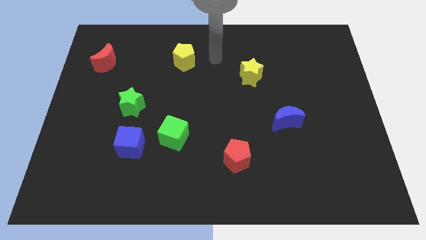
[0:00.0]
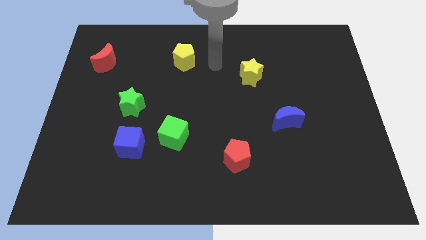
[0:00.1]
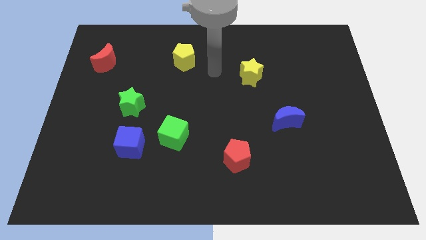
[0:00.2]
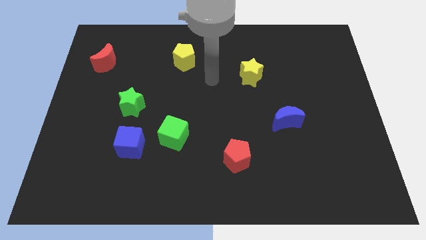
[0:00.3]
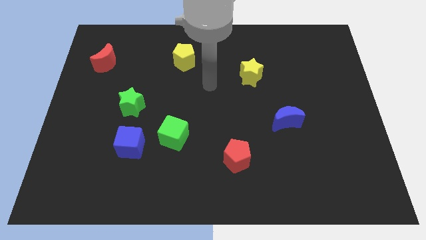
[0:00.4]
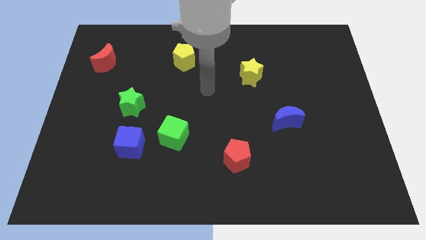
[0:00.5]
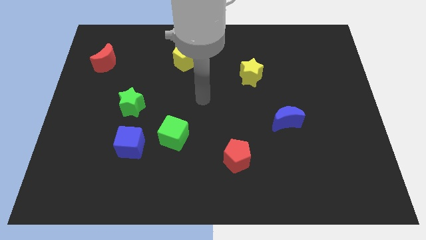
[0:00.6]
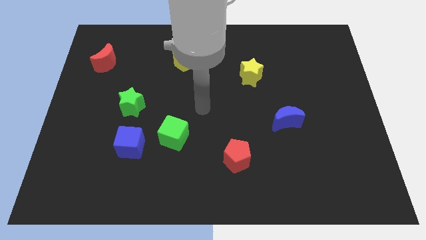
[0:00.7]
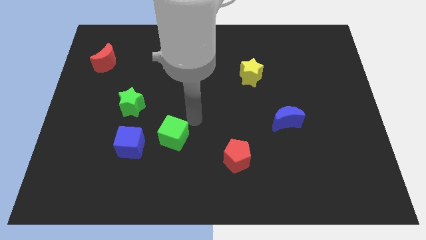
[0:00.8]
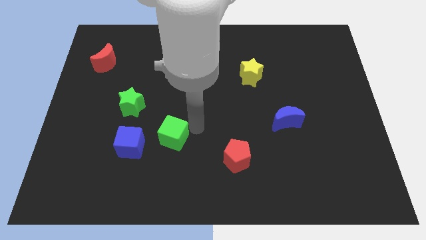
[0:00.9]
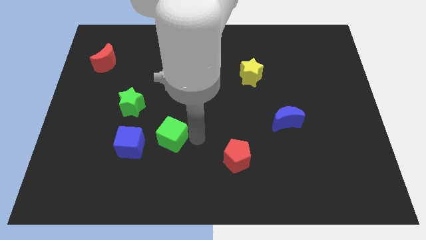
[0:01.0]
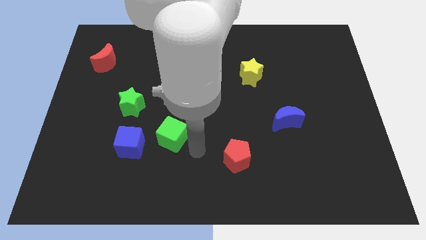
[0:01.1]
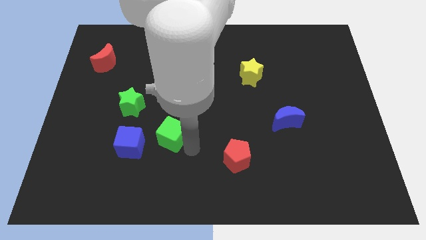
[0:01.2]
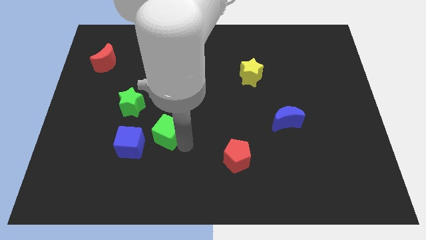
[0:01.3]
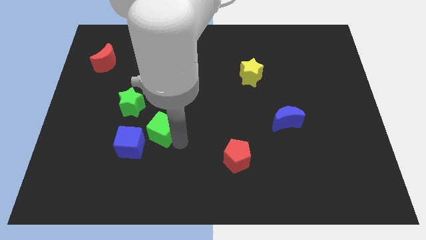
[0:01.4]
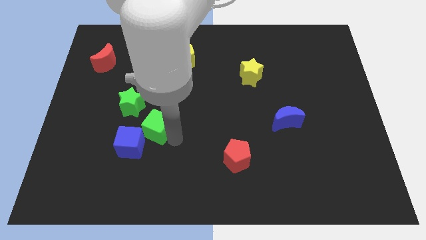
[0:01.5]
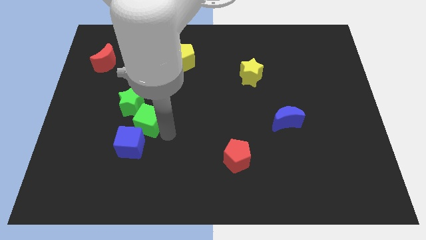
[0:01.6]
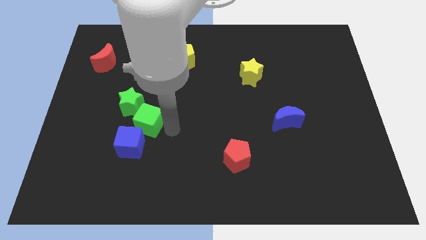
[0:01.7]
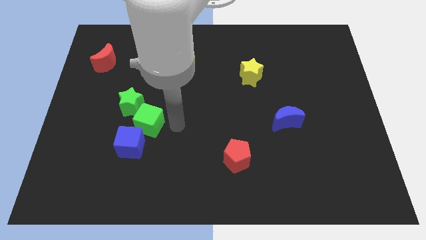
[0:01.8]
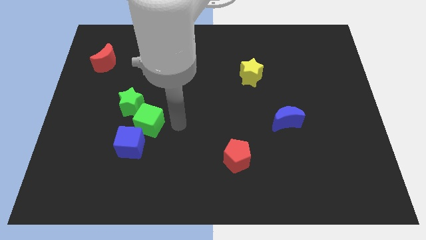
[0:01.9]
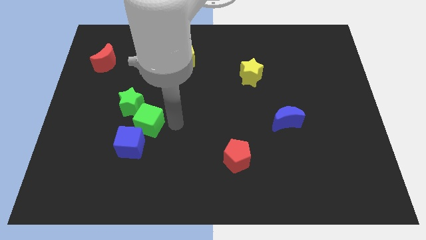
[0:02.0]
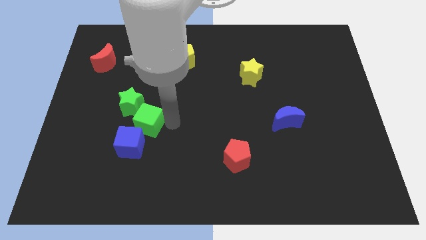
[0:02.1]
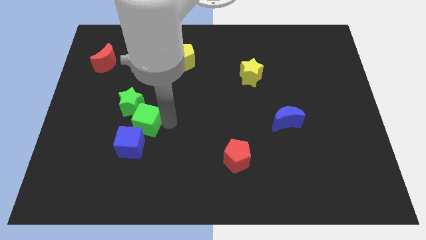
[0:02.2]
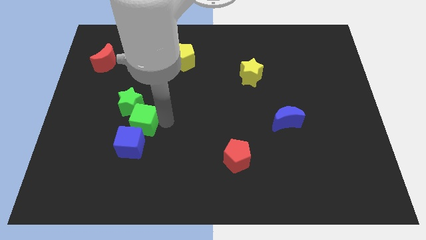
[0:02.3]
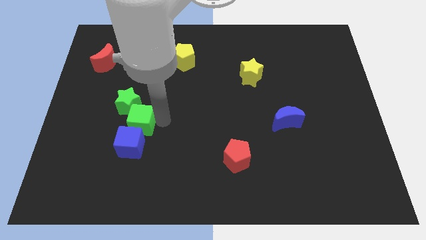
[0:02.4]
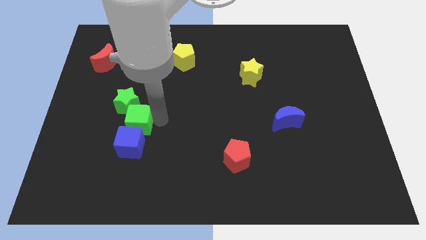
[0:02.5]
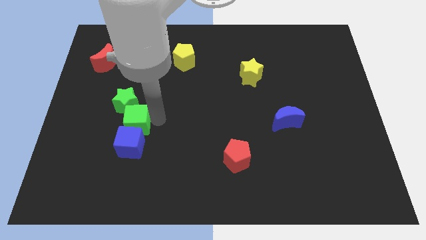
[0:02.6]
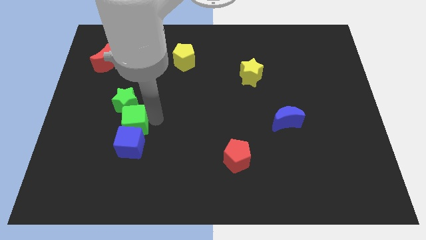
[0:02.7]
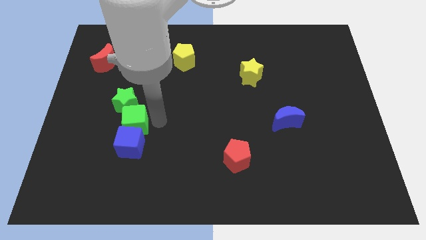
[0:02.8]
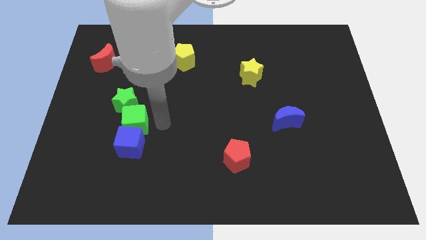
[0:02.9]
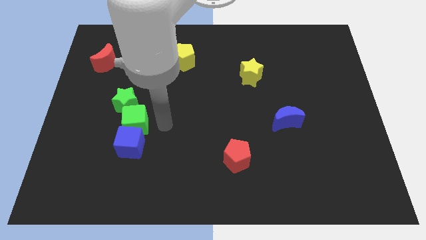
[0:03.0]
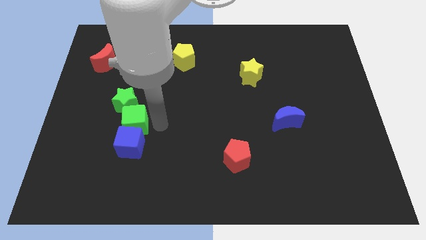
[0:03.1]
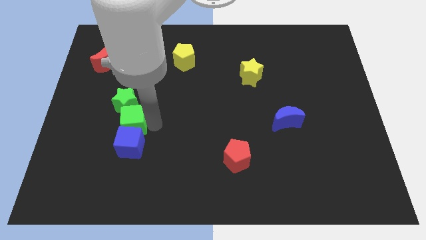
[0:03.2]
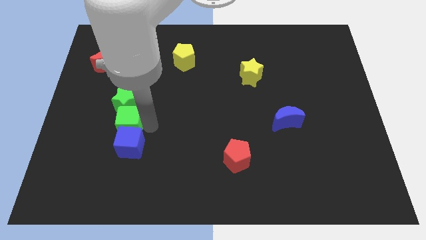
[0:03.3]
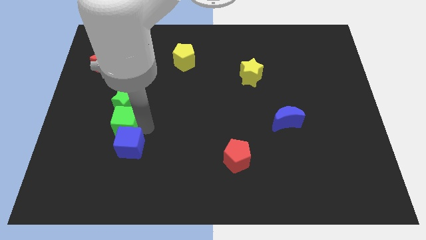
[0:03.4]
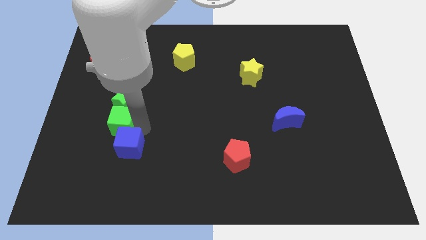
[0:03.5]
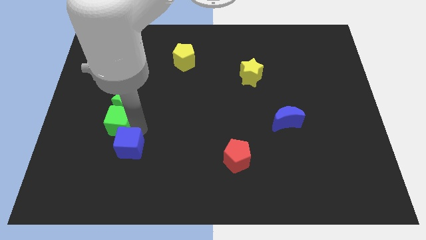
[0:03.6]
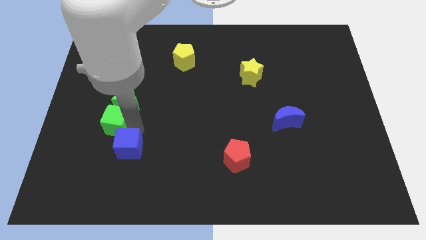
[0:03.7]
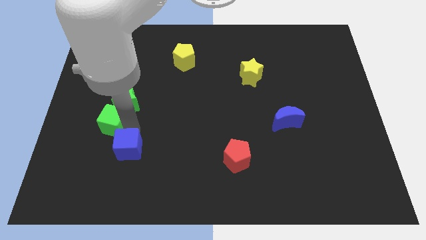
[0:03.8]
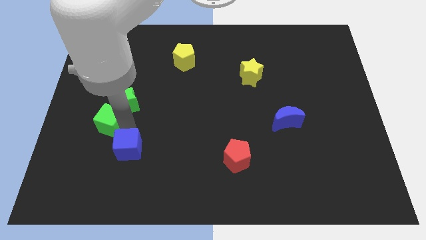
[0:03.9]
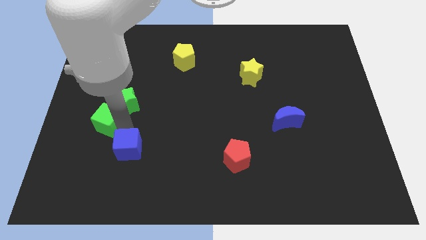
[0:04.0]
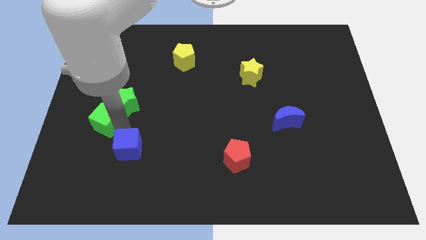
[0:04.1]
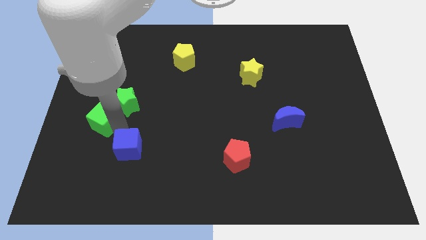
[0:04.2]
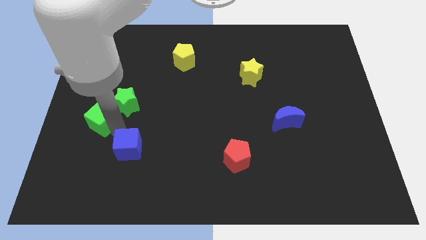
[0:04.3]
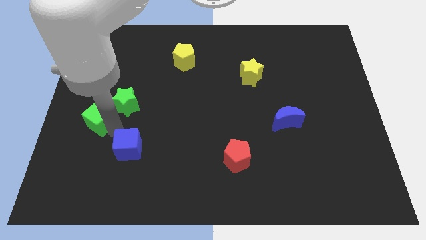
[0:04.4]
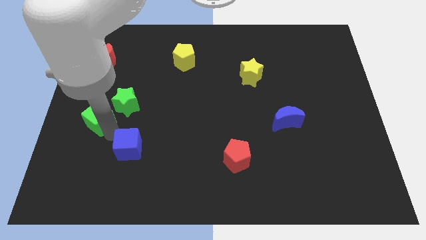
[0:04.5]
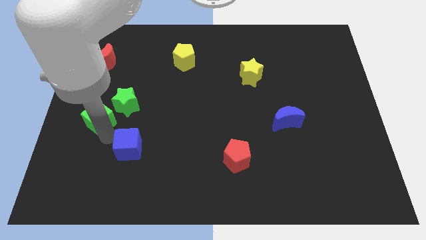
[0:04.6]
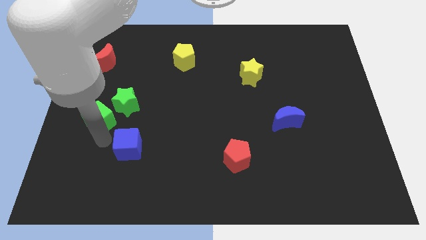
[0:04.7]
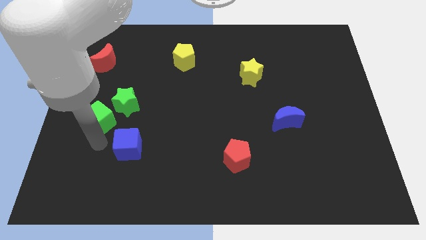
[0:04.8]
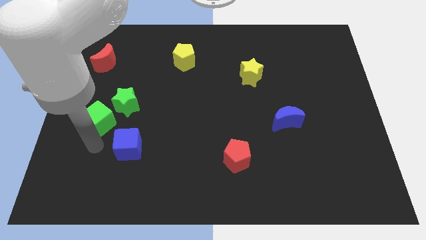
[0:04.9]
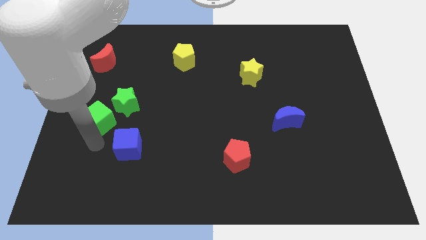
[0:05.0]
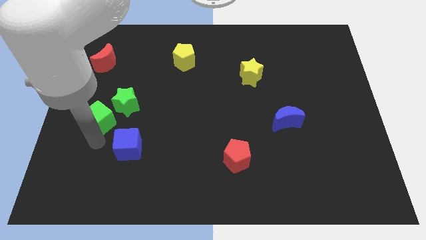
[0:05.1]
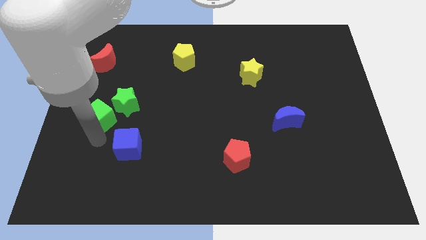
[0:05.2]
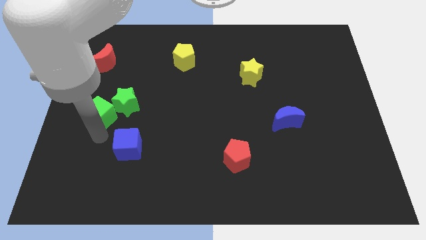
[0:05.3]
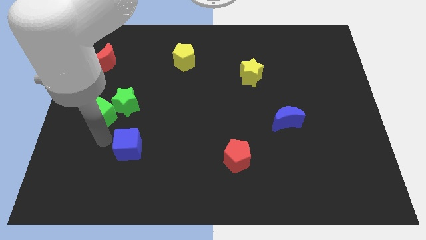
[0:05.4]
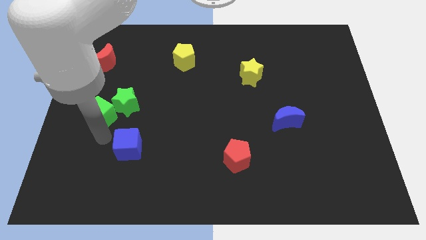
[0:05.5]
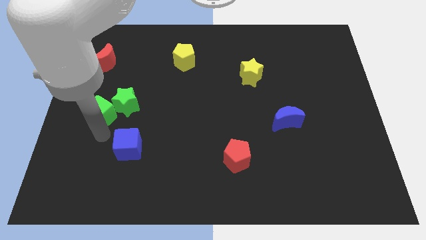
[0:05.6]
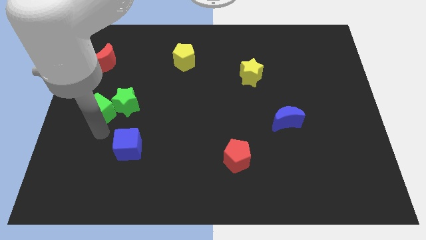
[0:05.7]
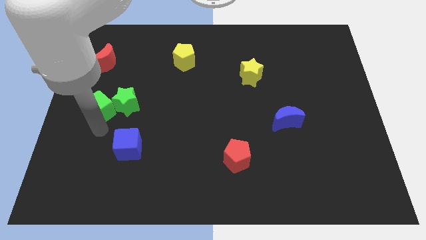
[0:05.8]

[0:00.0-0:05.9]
push the green cube to the bottom side of the red moon

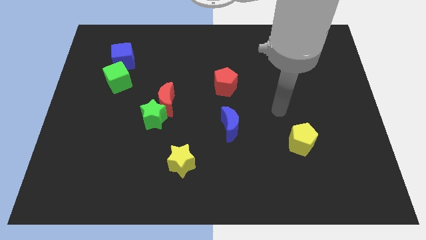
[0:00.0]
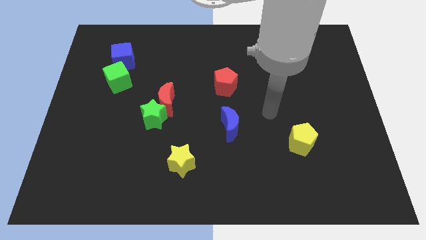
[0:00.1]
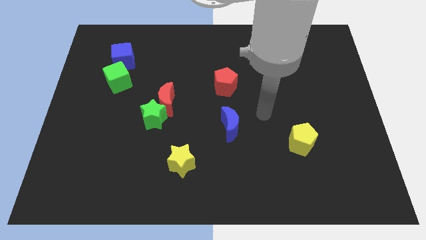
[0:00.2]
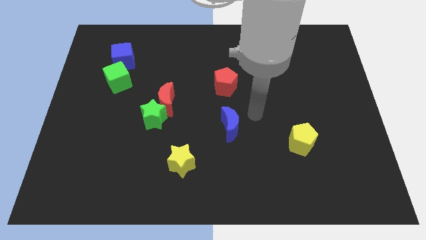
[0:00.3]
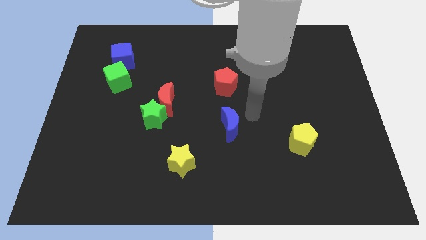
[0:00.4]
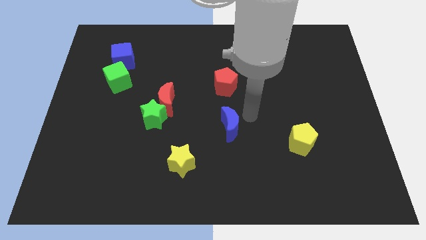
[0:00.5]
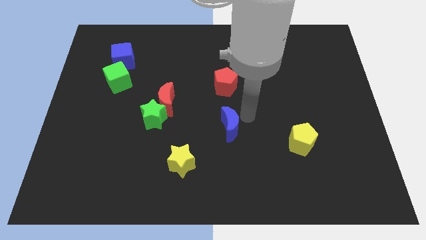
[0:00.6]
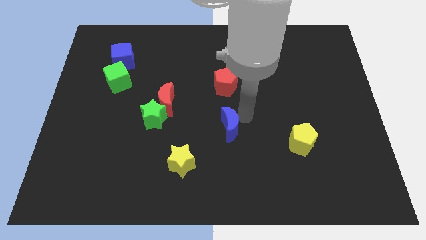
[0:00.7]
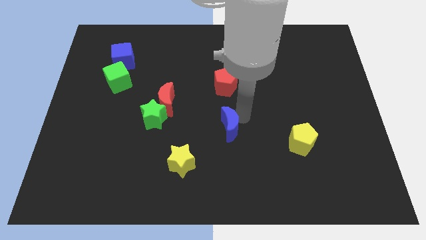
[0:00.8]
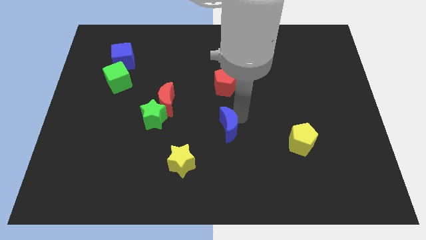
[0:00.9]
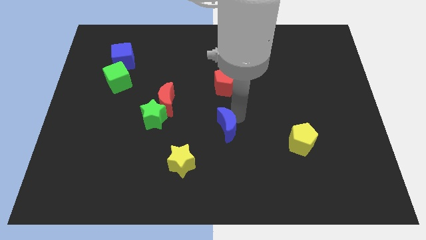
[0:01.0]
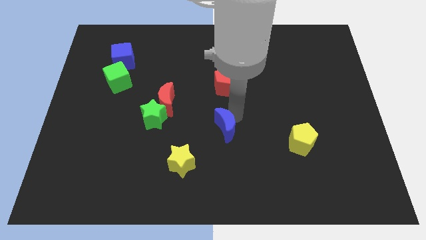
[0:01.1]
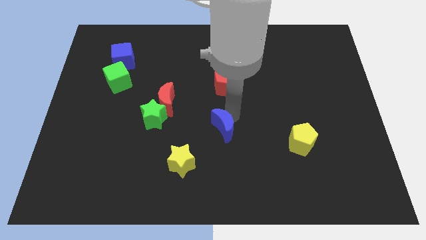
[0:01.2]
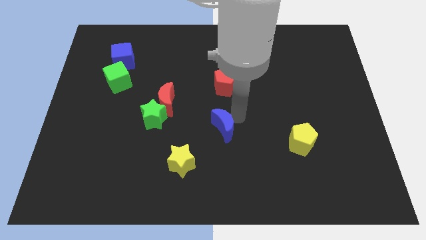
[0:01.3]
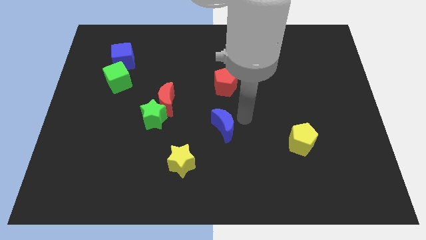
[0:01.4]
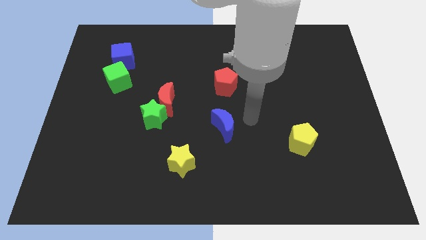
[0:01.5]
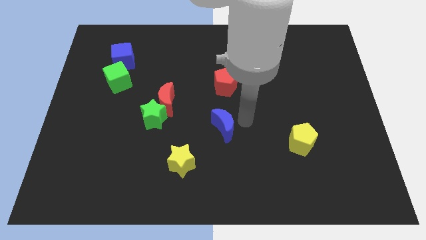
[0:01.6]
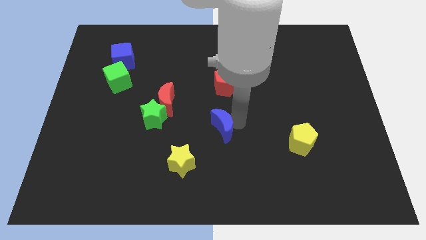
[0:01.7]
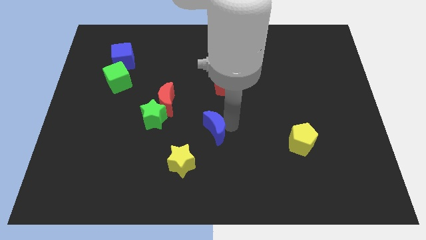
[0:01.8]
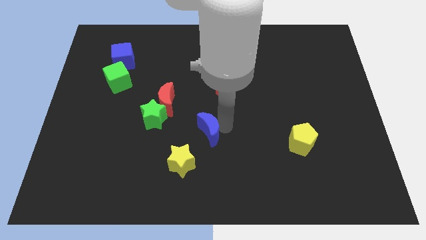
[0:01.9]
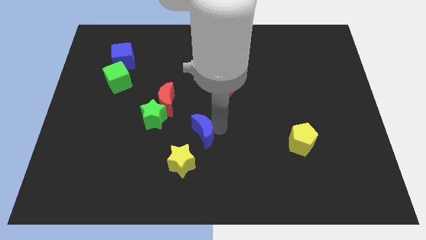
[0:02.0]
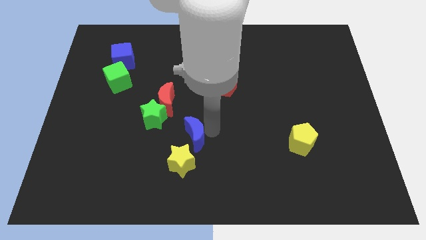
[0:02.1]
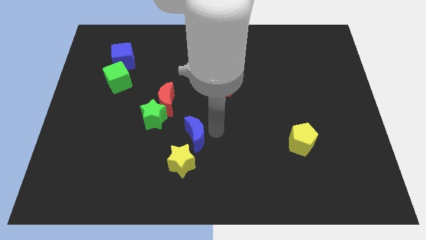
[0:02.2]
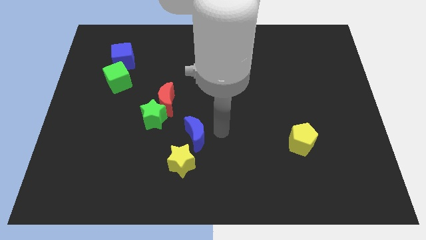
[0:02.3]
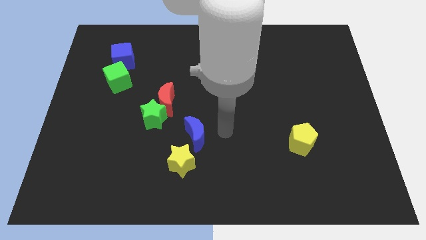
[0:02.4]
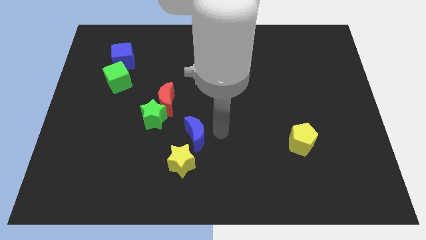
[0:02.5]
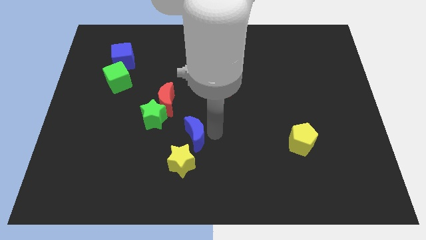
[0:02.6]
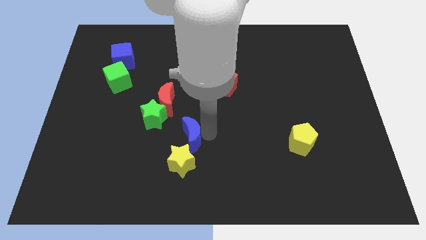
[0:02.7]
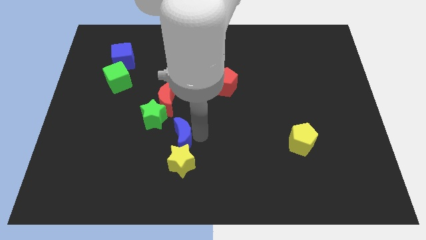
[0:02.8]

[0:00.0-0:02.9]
push the blue moon to the top left side of the yellow star
